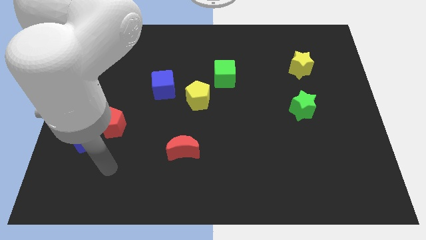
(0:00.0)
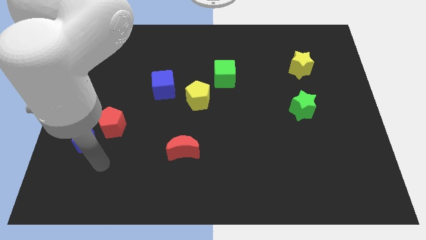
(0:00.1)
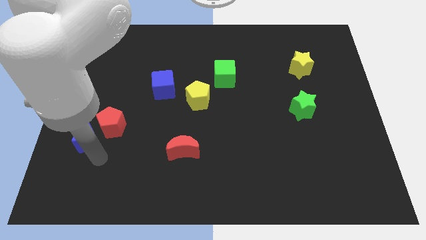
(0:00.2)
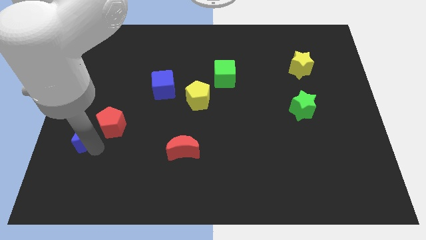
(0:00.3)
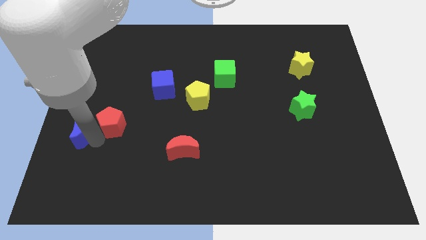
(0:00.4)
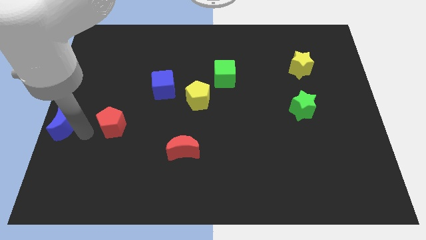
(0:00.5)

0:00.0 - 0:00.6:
pull the red pentagon apart from the blue moon

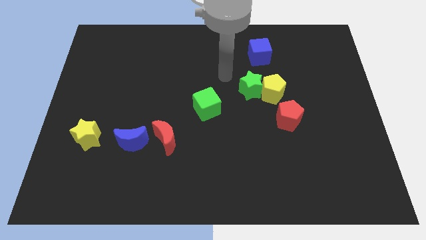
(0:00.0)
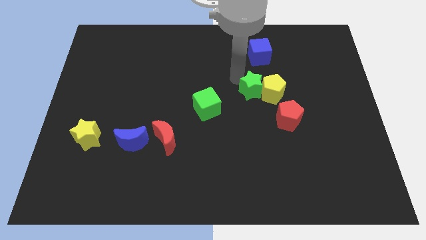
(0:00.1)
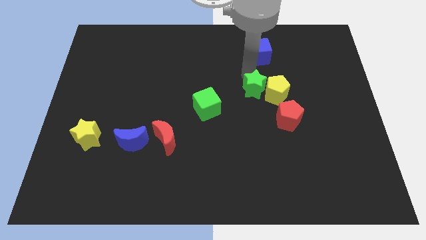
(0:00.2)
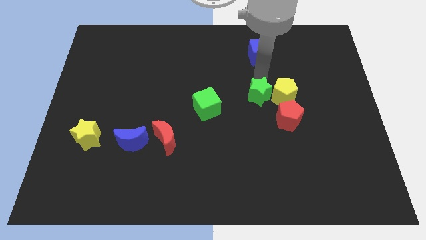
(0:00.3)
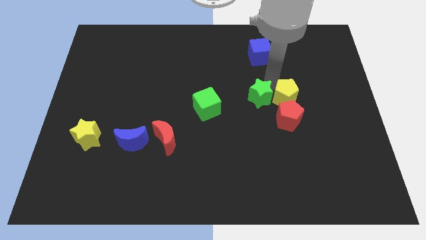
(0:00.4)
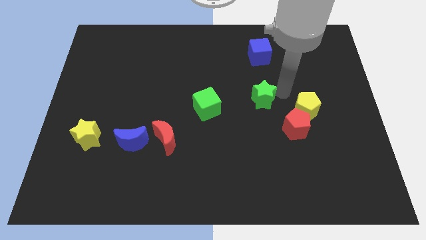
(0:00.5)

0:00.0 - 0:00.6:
separate the green star from the yellow pentagon

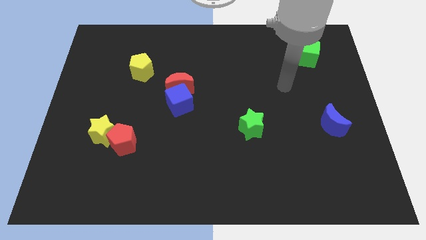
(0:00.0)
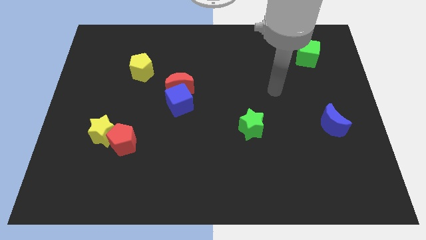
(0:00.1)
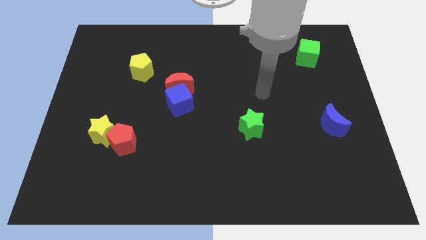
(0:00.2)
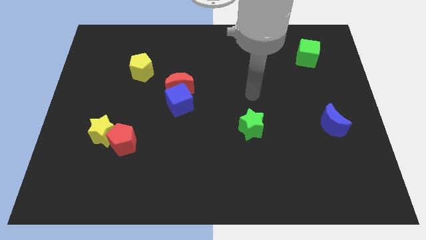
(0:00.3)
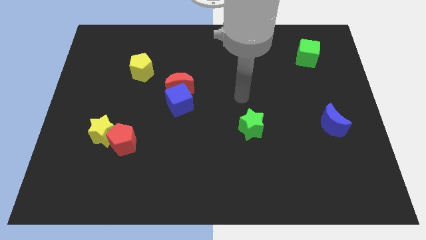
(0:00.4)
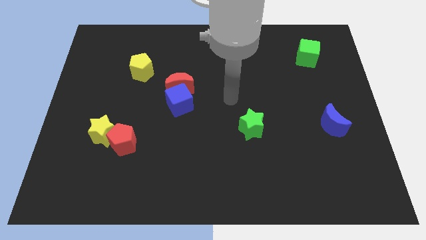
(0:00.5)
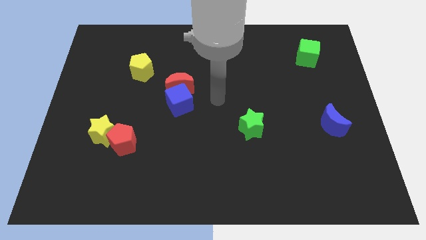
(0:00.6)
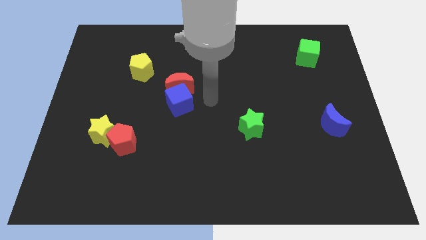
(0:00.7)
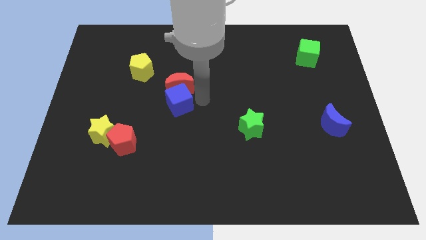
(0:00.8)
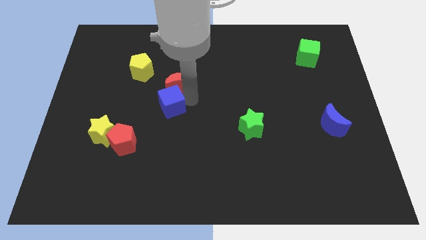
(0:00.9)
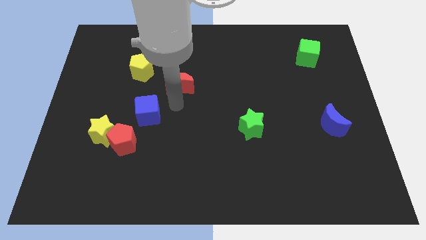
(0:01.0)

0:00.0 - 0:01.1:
pull the red moon apart from the blue cube

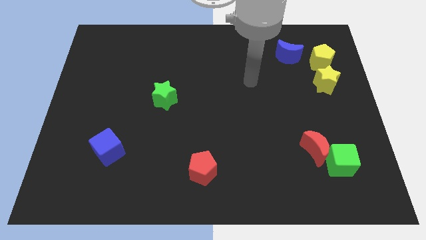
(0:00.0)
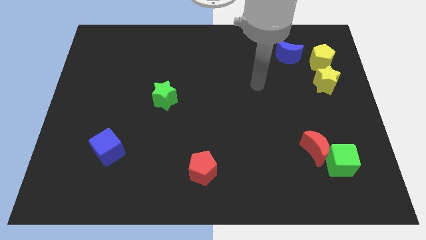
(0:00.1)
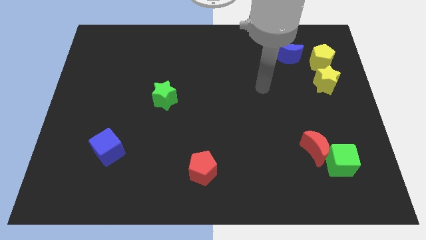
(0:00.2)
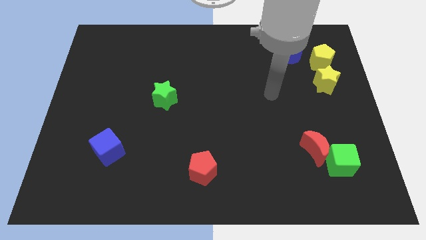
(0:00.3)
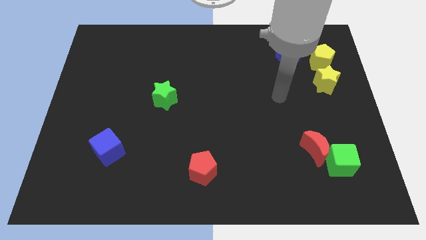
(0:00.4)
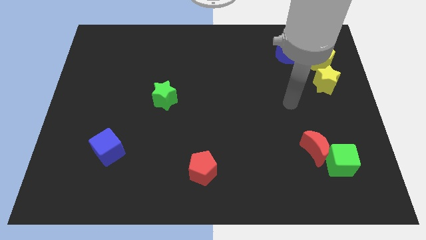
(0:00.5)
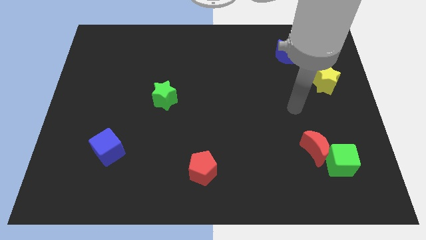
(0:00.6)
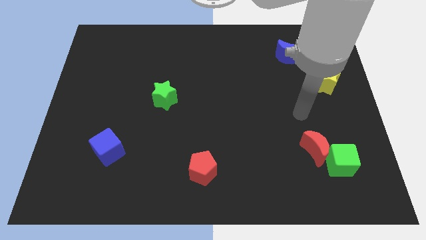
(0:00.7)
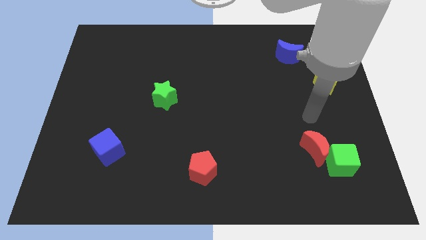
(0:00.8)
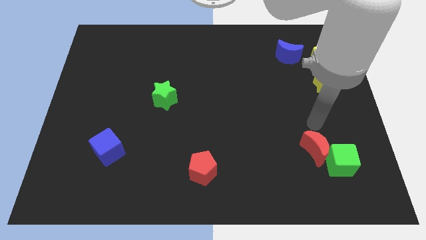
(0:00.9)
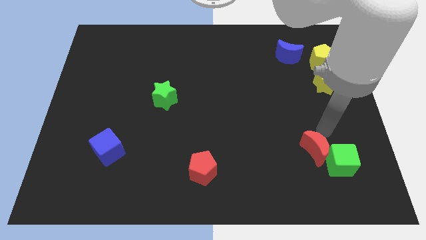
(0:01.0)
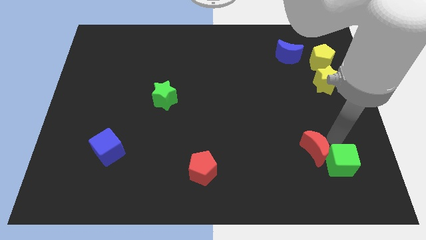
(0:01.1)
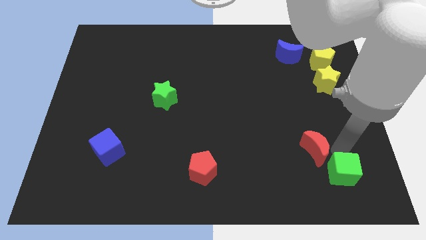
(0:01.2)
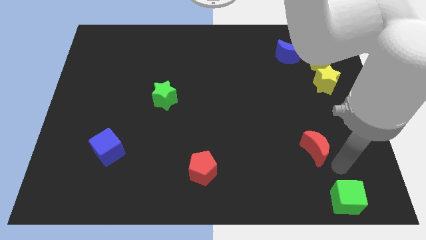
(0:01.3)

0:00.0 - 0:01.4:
pull the red moon apart from the green cube

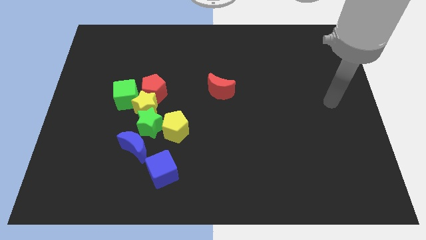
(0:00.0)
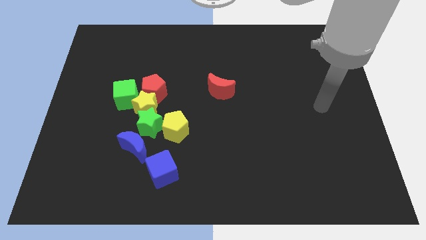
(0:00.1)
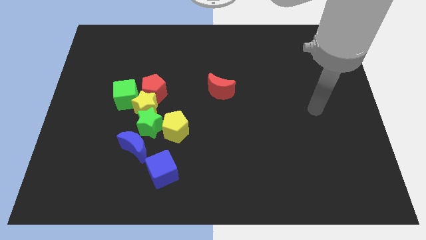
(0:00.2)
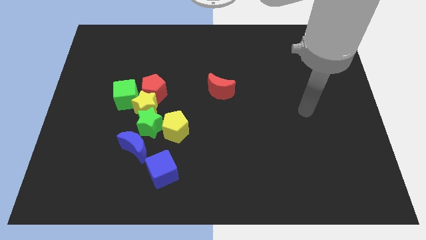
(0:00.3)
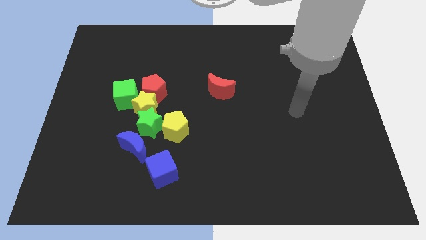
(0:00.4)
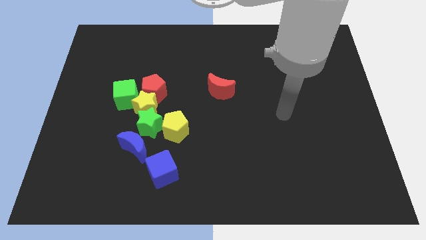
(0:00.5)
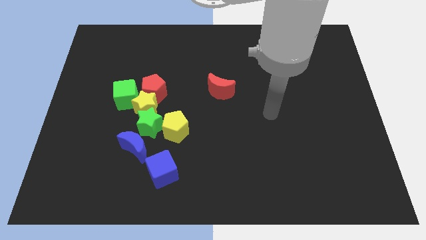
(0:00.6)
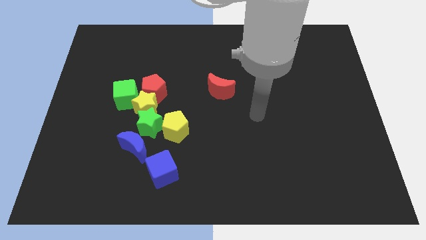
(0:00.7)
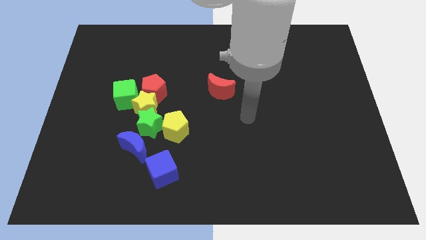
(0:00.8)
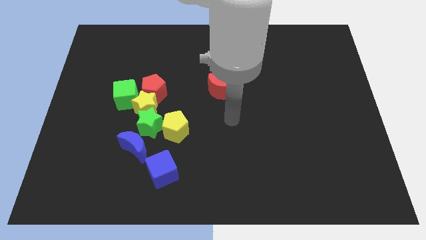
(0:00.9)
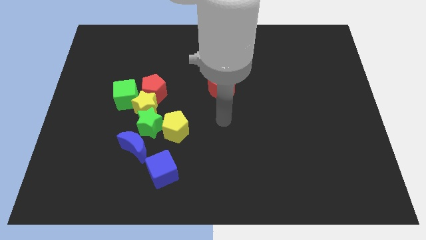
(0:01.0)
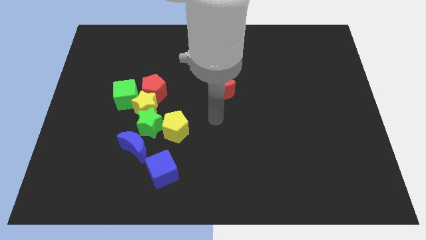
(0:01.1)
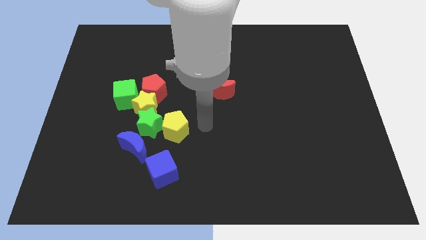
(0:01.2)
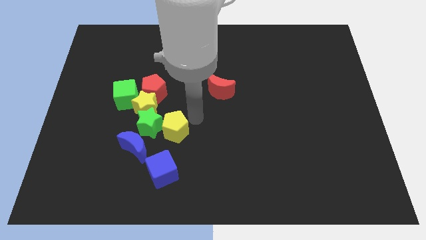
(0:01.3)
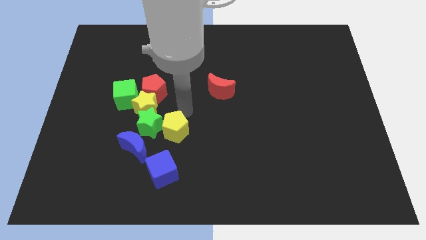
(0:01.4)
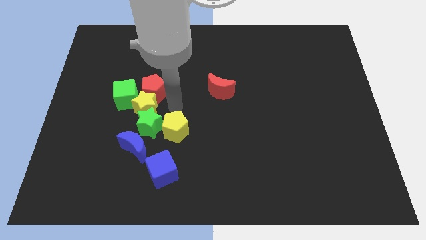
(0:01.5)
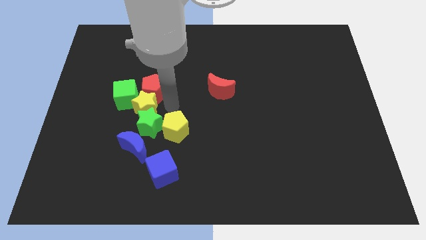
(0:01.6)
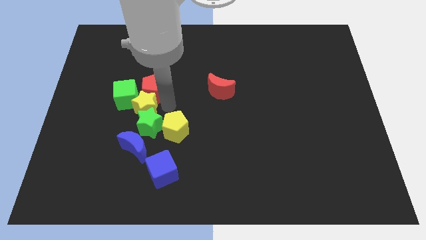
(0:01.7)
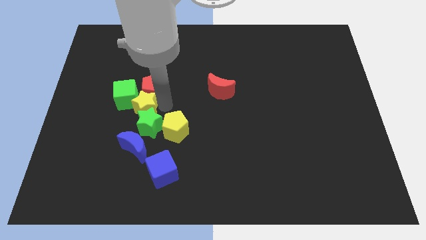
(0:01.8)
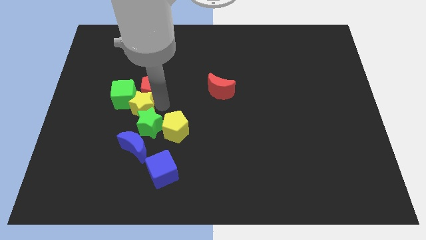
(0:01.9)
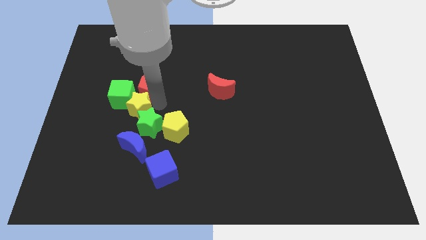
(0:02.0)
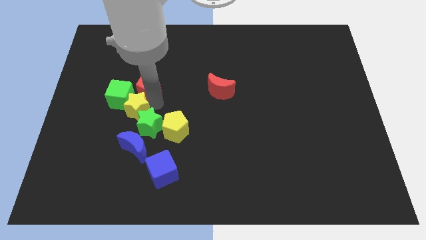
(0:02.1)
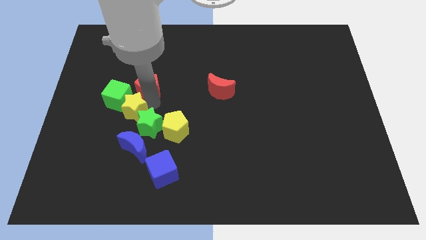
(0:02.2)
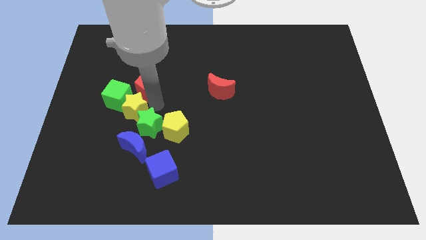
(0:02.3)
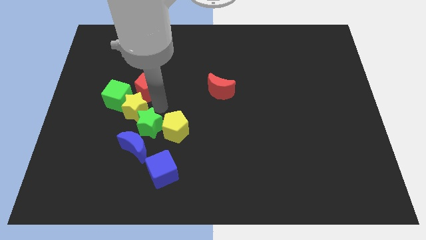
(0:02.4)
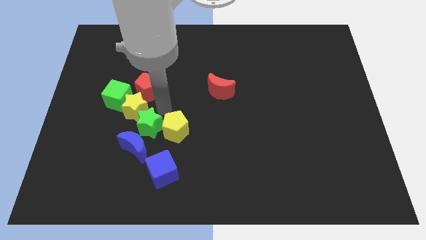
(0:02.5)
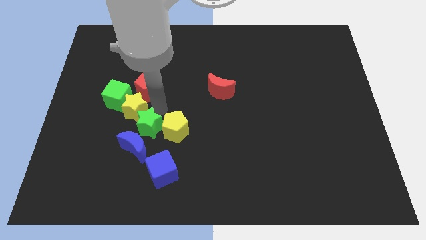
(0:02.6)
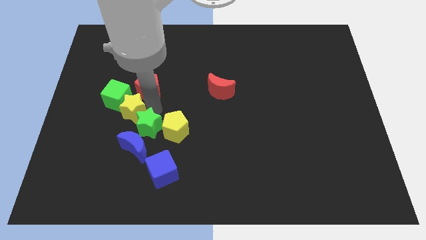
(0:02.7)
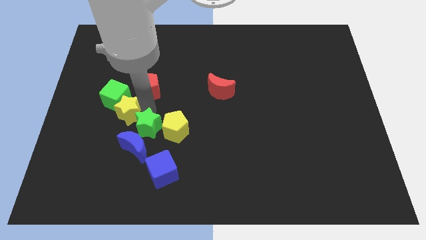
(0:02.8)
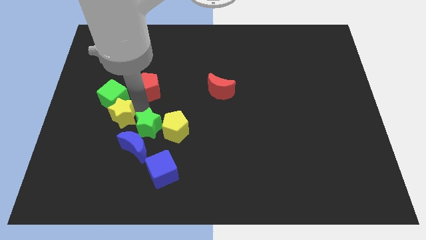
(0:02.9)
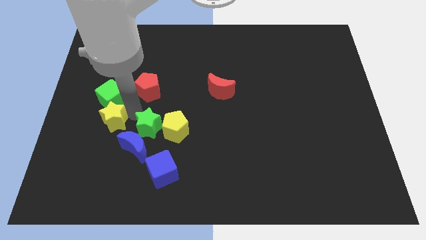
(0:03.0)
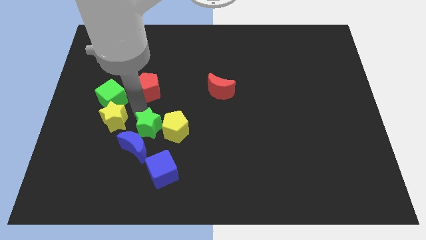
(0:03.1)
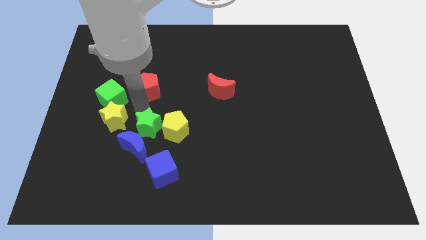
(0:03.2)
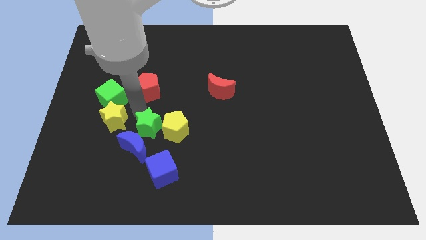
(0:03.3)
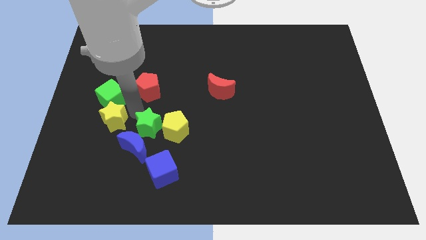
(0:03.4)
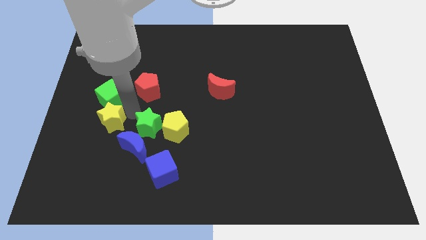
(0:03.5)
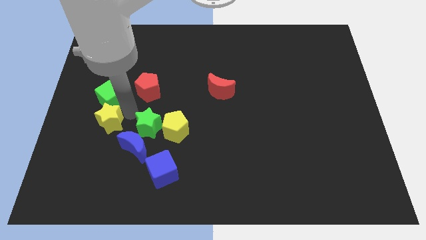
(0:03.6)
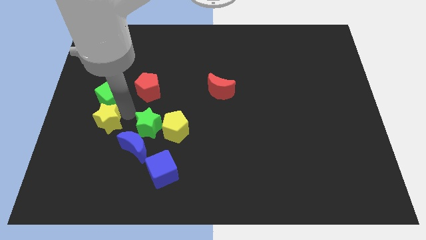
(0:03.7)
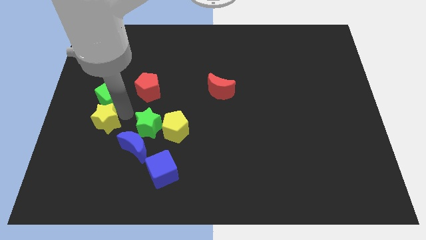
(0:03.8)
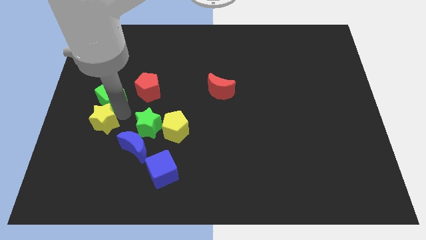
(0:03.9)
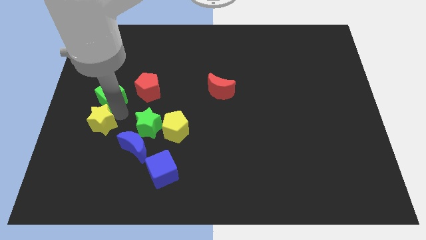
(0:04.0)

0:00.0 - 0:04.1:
separate the yellow star from the clump

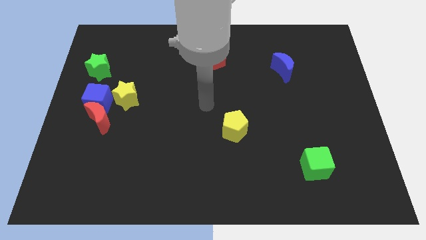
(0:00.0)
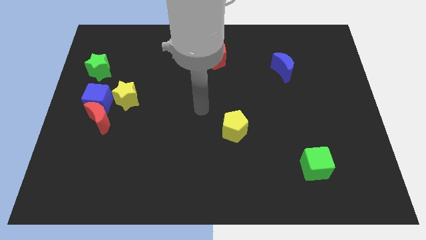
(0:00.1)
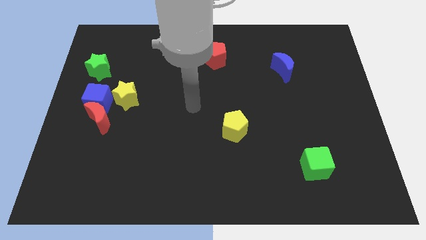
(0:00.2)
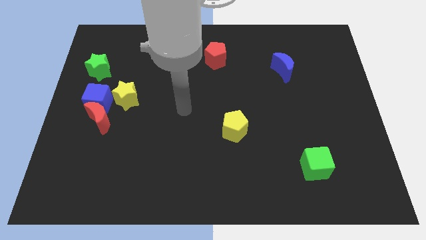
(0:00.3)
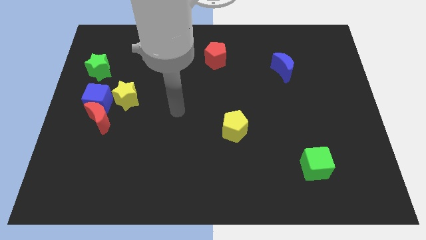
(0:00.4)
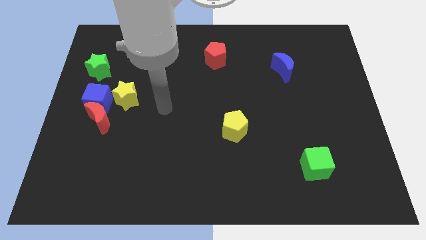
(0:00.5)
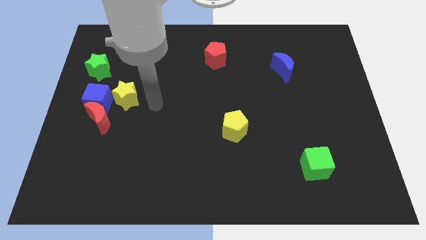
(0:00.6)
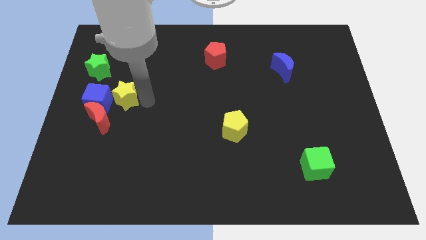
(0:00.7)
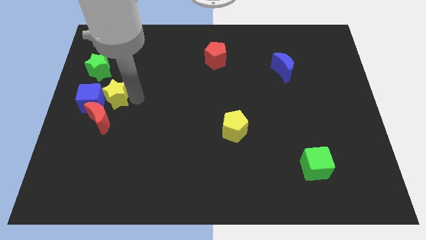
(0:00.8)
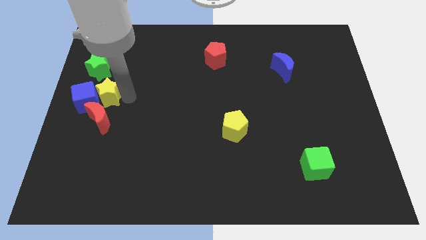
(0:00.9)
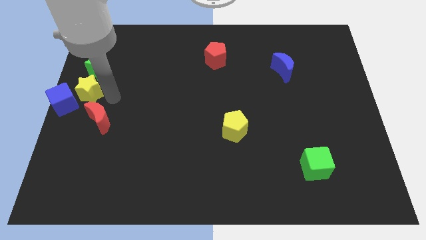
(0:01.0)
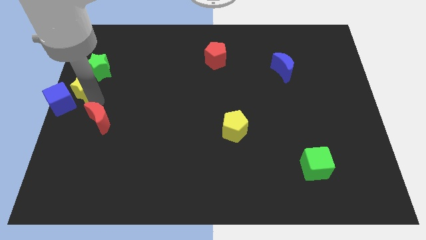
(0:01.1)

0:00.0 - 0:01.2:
move the red moon away from the blue cube and yellow star

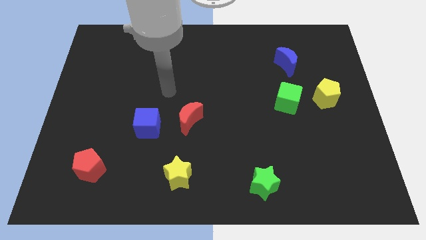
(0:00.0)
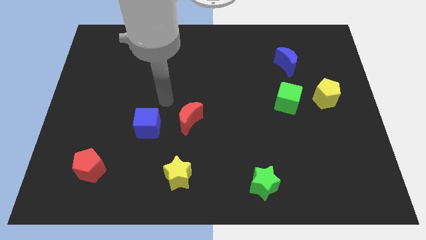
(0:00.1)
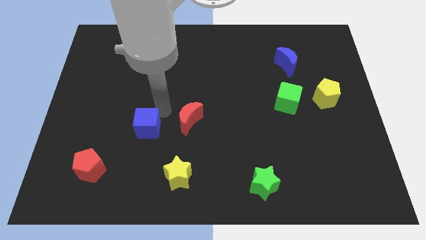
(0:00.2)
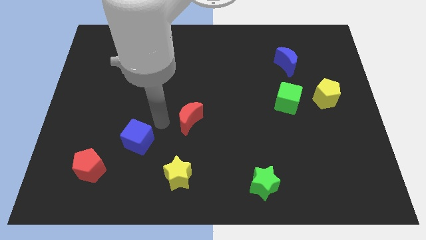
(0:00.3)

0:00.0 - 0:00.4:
move the red moon away from the blue cube
